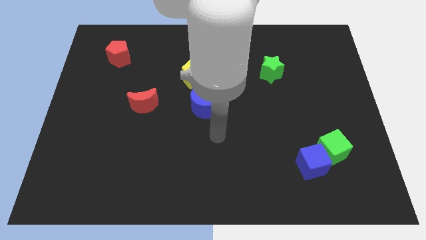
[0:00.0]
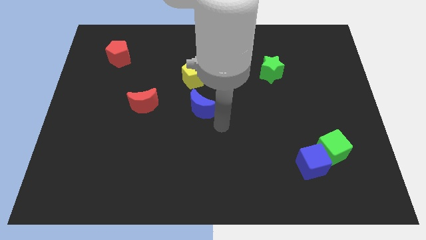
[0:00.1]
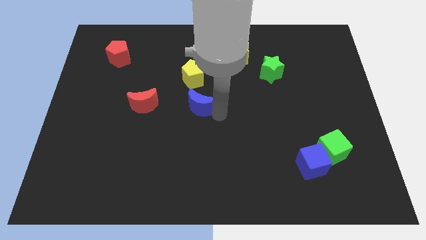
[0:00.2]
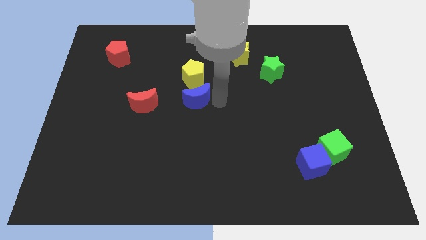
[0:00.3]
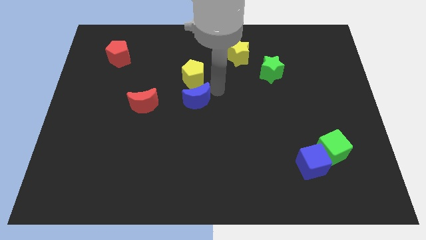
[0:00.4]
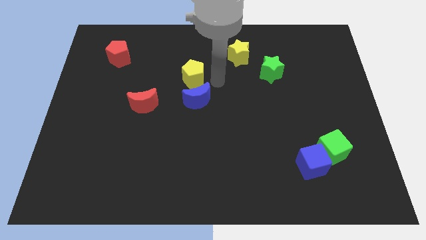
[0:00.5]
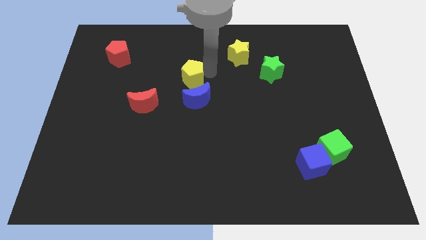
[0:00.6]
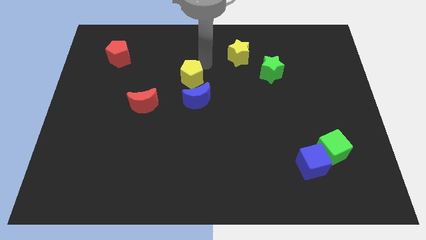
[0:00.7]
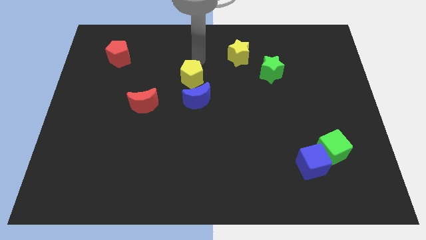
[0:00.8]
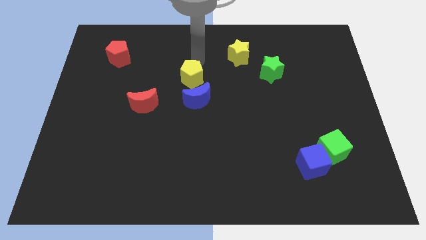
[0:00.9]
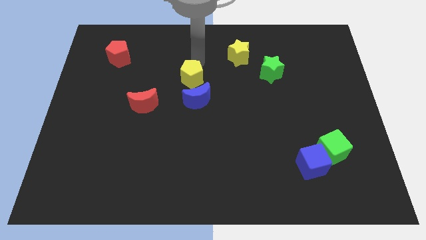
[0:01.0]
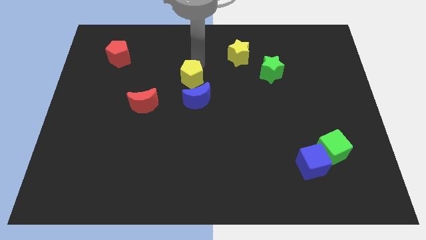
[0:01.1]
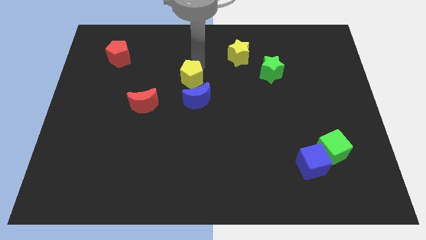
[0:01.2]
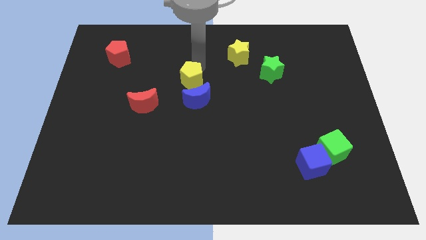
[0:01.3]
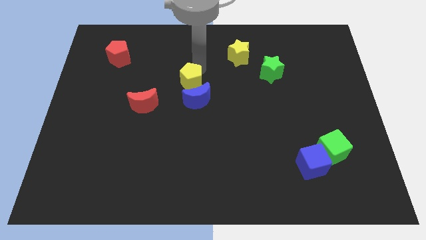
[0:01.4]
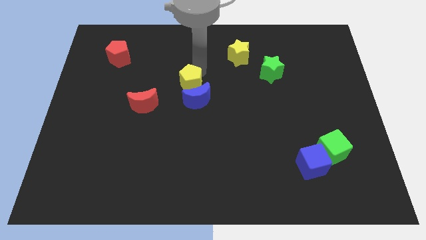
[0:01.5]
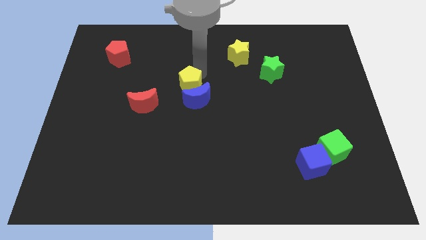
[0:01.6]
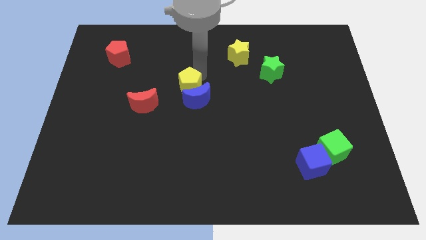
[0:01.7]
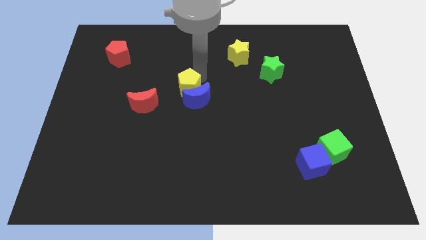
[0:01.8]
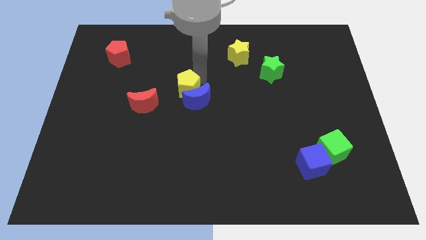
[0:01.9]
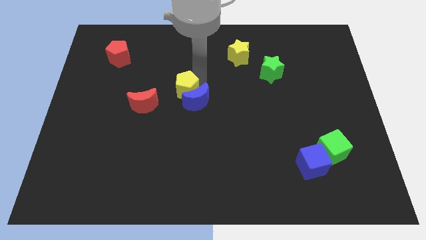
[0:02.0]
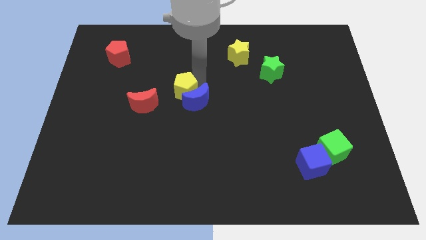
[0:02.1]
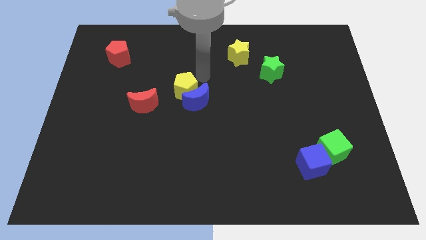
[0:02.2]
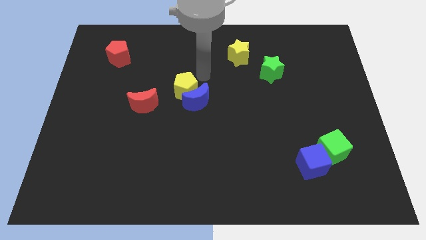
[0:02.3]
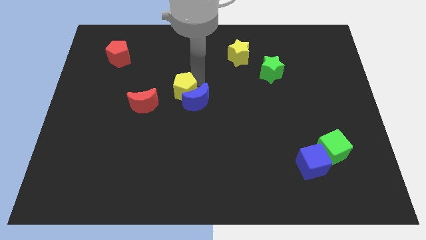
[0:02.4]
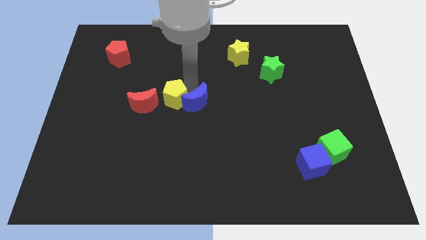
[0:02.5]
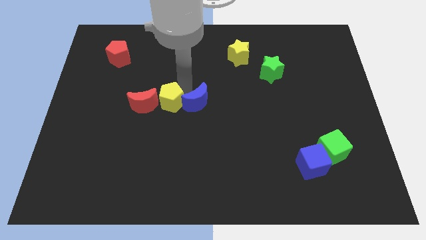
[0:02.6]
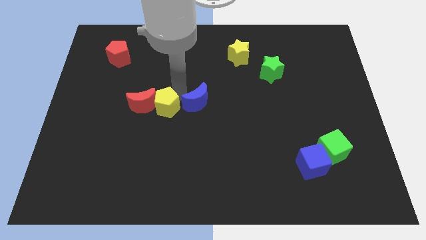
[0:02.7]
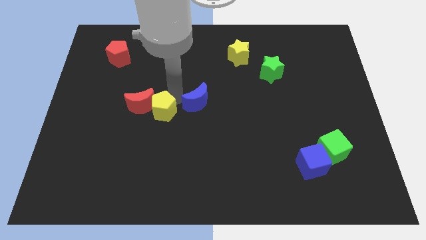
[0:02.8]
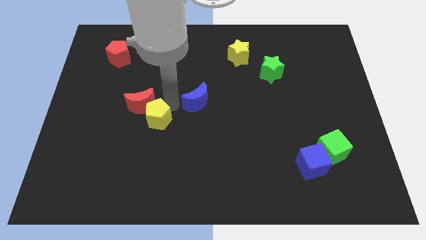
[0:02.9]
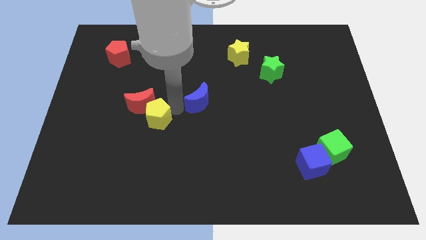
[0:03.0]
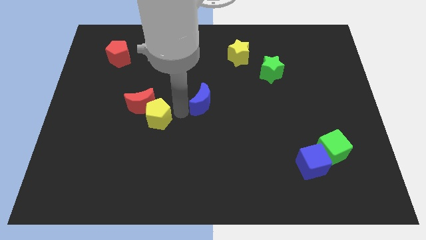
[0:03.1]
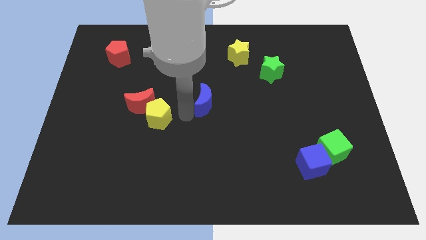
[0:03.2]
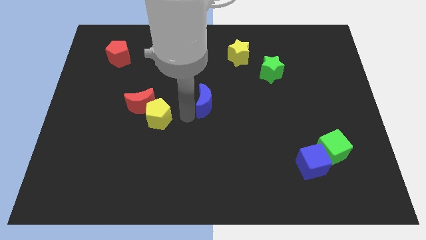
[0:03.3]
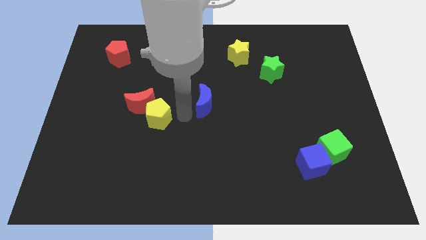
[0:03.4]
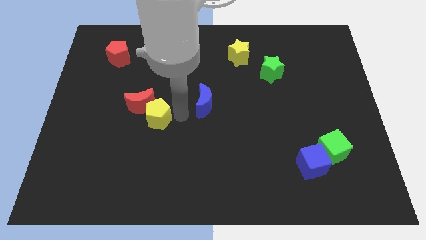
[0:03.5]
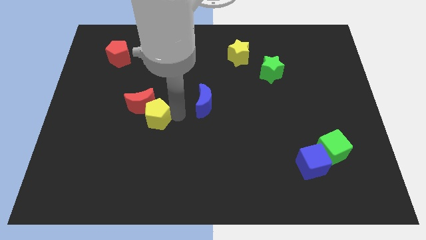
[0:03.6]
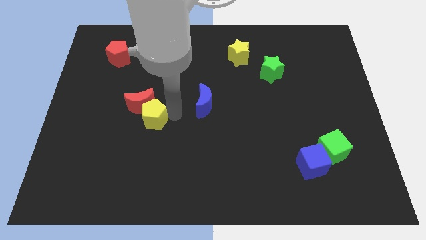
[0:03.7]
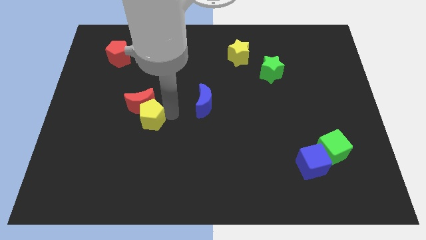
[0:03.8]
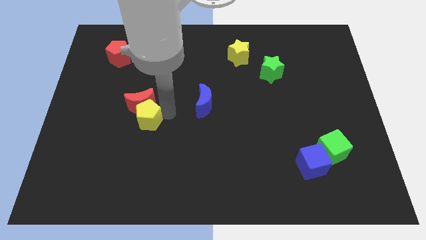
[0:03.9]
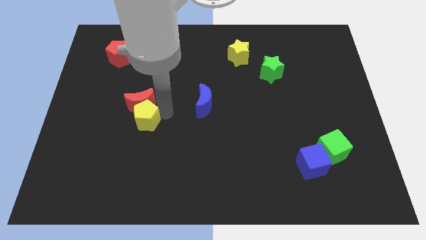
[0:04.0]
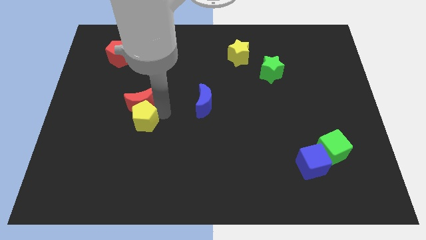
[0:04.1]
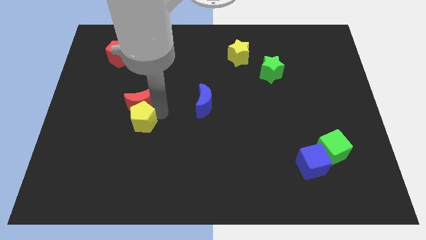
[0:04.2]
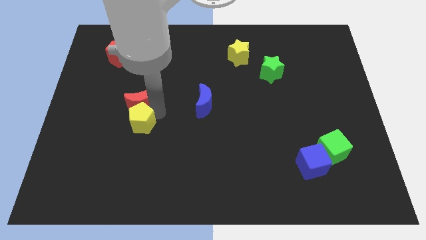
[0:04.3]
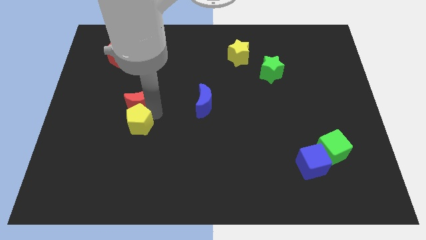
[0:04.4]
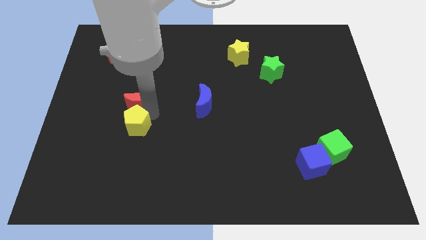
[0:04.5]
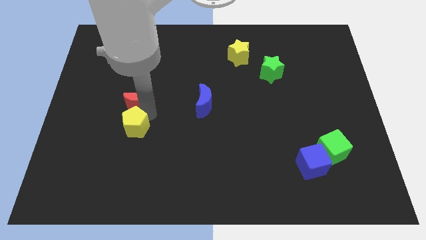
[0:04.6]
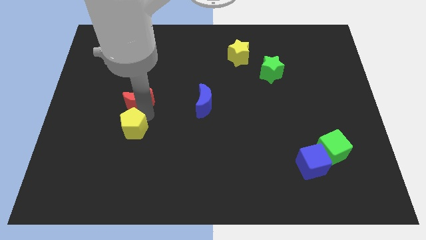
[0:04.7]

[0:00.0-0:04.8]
slide the yellow pentagon diagonally down and left

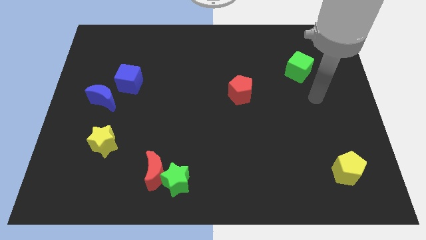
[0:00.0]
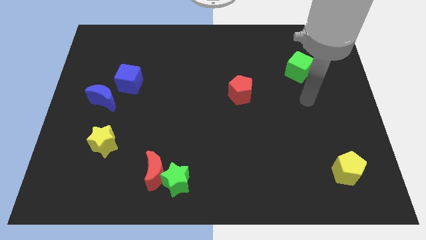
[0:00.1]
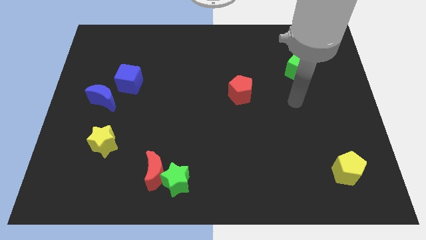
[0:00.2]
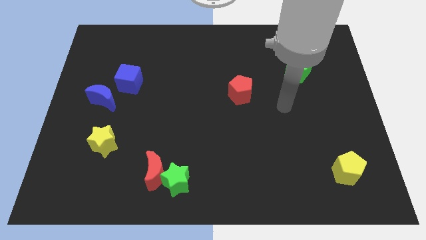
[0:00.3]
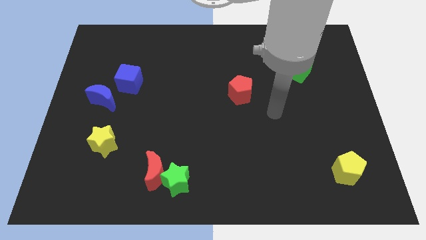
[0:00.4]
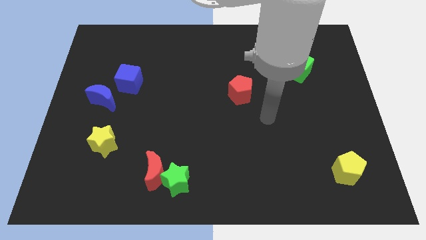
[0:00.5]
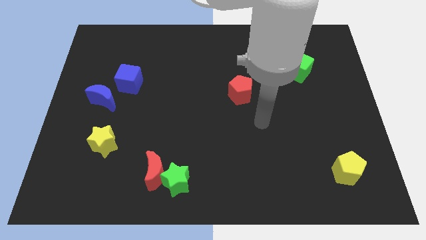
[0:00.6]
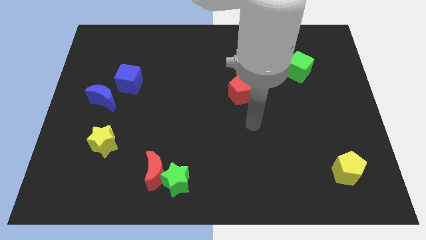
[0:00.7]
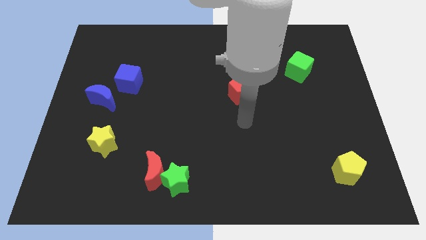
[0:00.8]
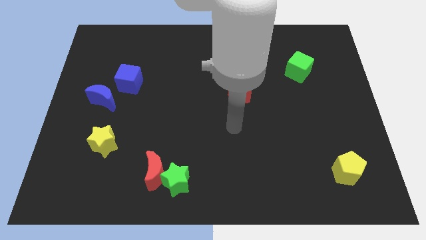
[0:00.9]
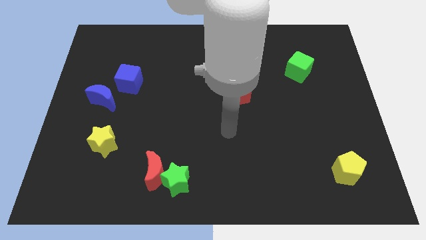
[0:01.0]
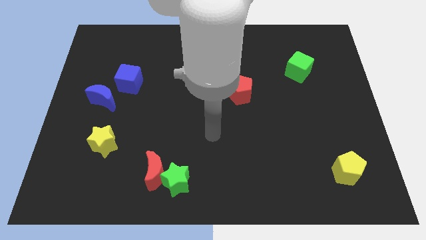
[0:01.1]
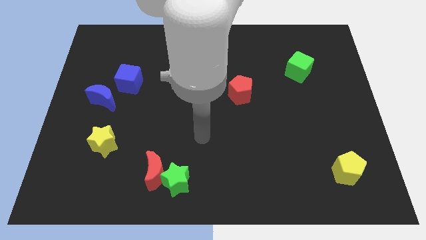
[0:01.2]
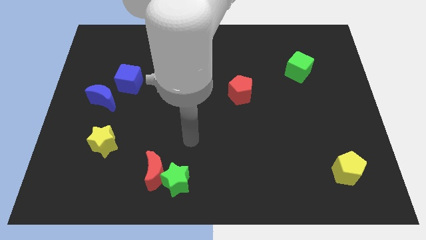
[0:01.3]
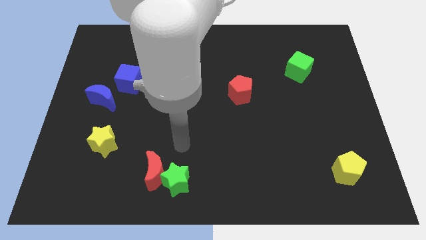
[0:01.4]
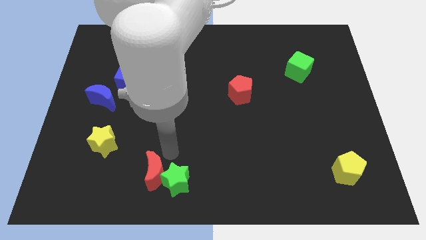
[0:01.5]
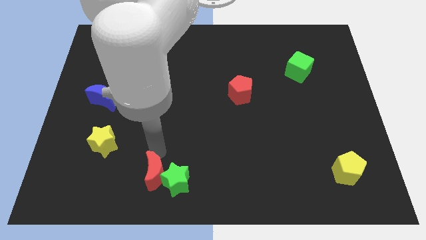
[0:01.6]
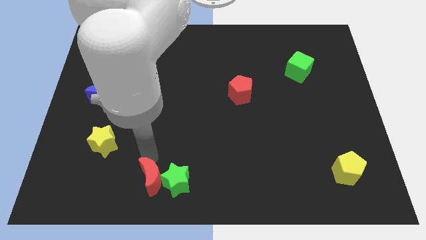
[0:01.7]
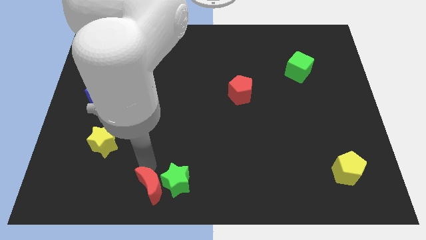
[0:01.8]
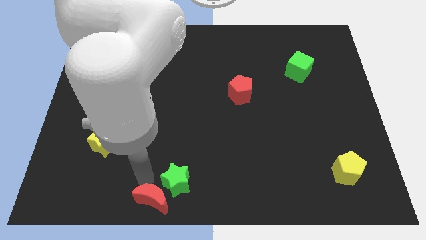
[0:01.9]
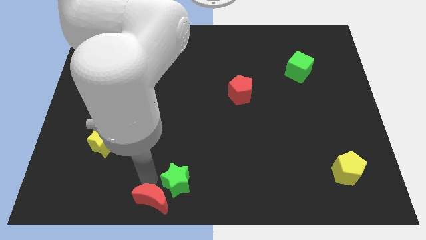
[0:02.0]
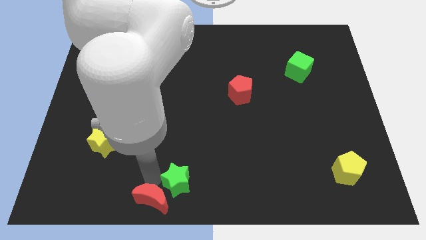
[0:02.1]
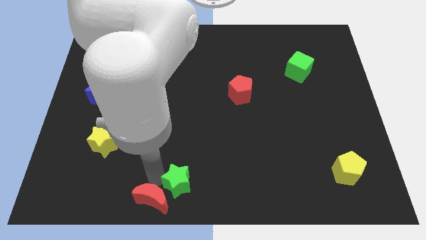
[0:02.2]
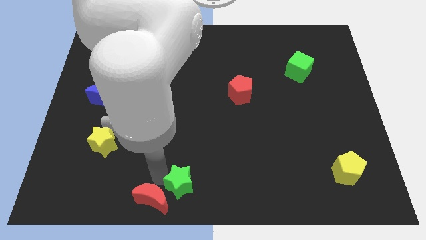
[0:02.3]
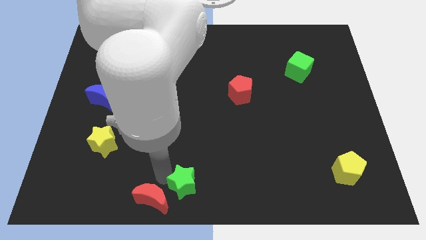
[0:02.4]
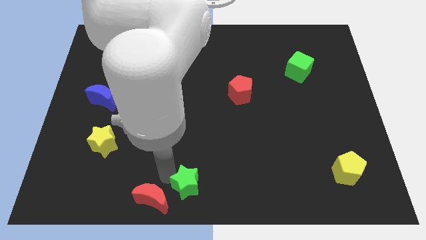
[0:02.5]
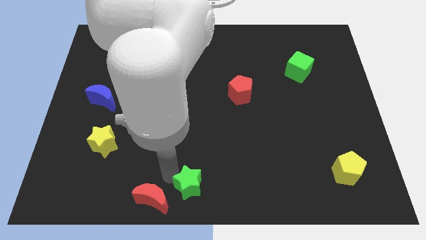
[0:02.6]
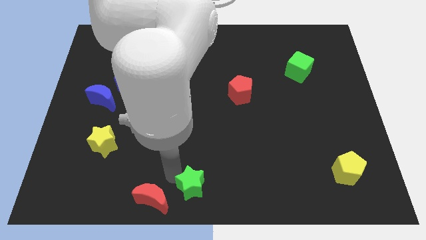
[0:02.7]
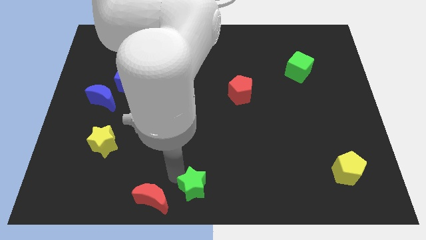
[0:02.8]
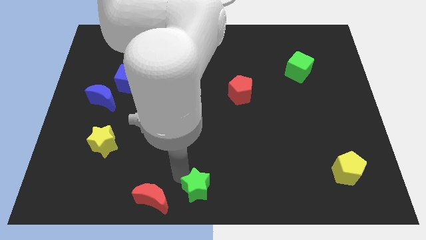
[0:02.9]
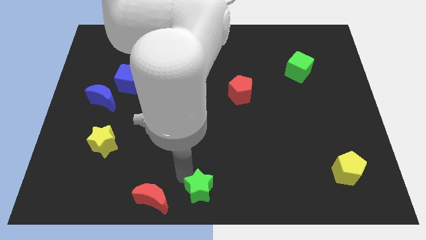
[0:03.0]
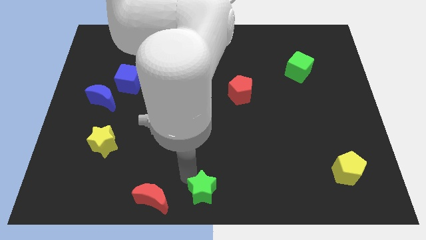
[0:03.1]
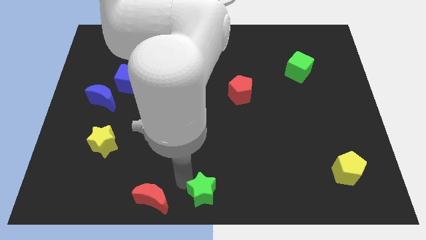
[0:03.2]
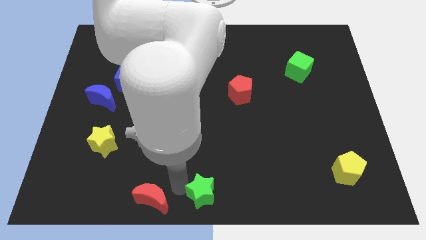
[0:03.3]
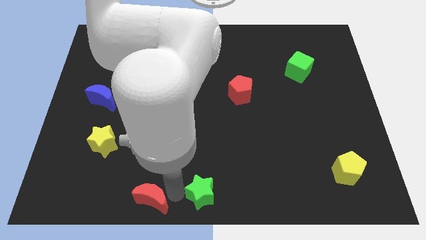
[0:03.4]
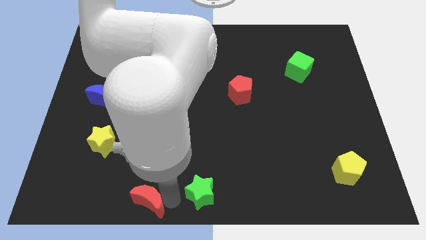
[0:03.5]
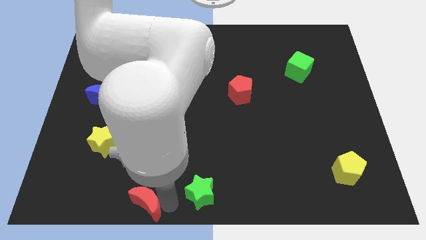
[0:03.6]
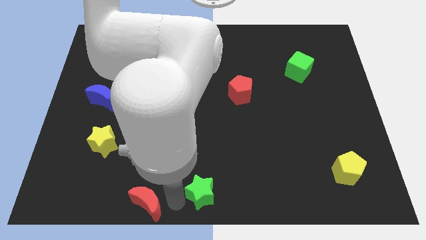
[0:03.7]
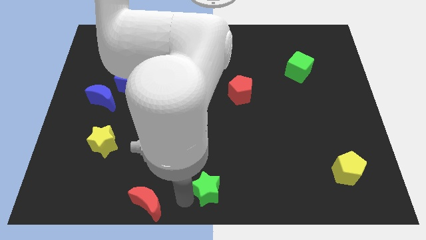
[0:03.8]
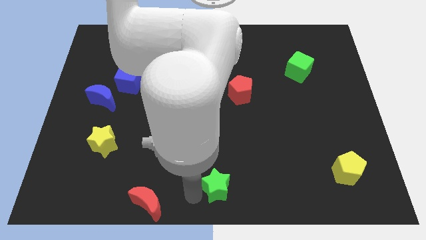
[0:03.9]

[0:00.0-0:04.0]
push the green star somewhat to the right
